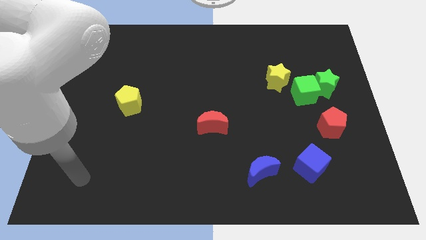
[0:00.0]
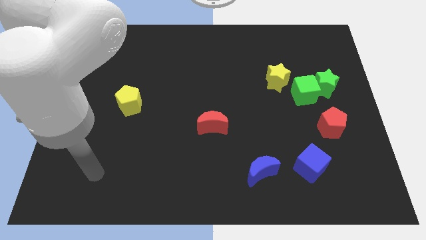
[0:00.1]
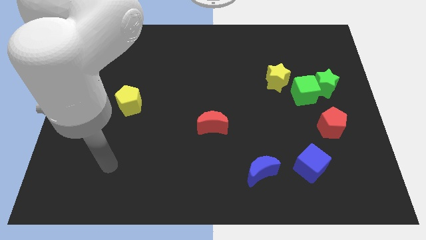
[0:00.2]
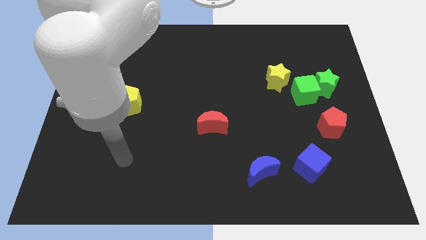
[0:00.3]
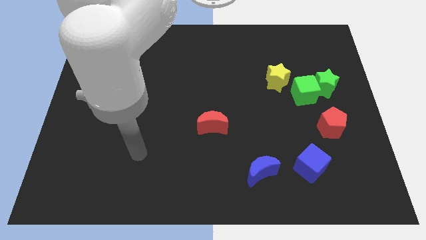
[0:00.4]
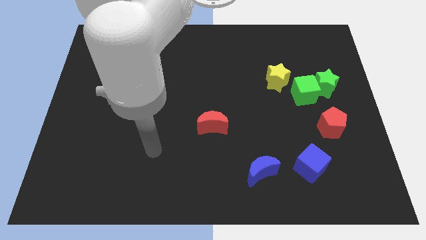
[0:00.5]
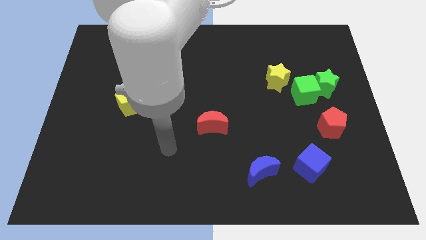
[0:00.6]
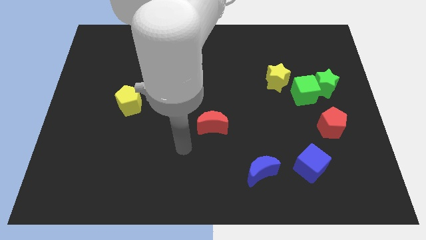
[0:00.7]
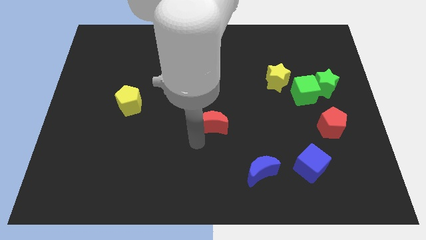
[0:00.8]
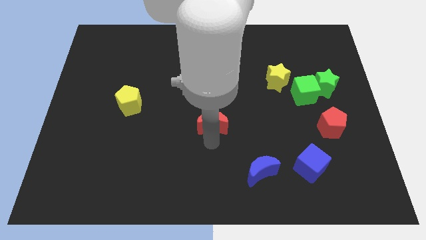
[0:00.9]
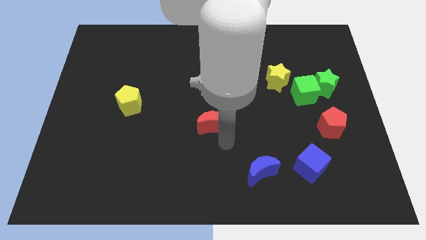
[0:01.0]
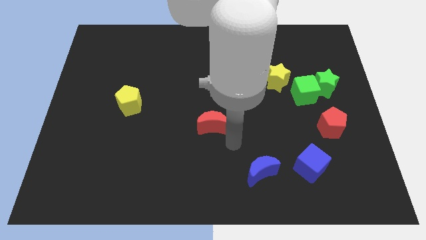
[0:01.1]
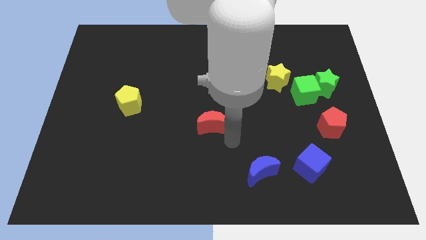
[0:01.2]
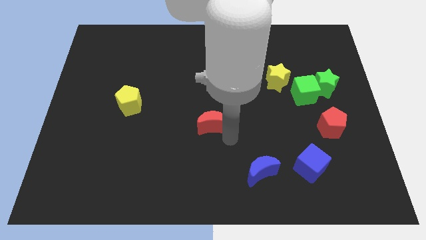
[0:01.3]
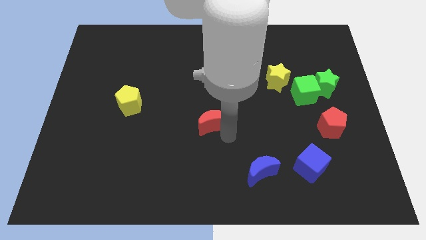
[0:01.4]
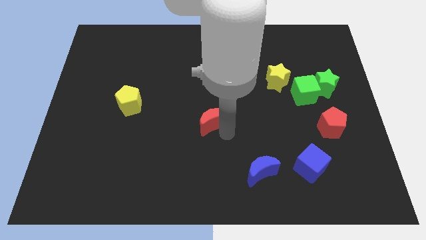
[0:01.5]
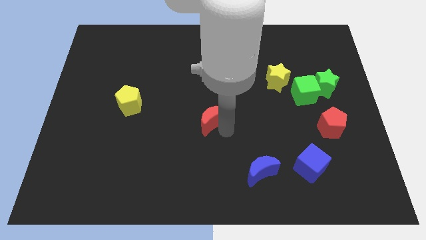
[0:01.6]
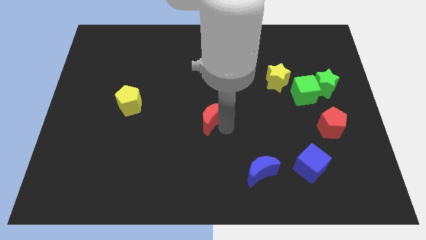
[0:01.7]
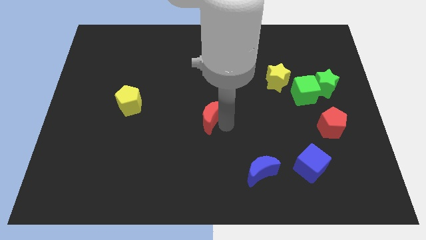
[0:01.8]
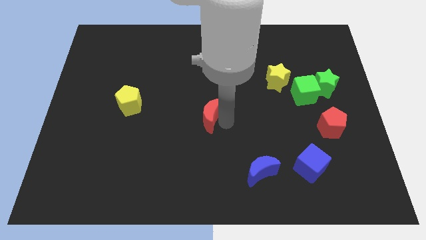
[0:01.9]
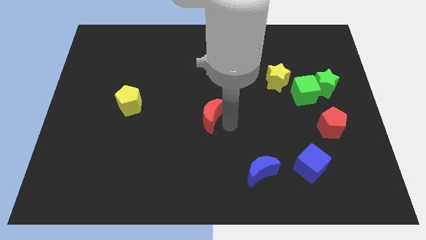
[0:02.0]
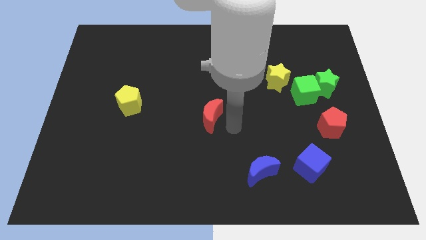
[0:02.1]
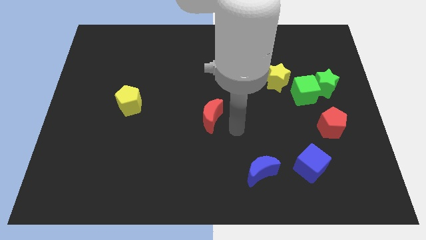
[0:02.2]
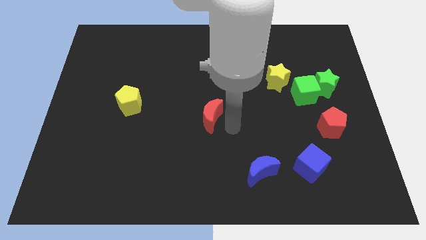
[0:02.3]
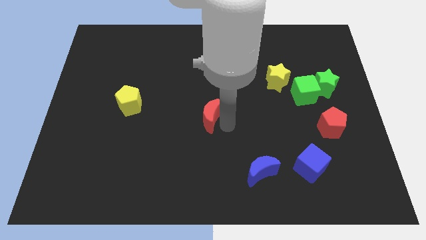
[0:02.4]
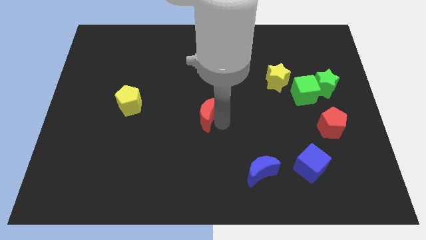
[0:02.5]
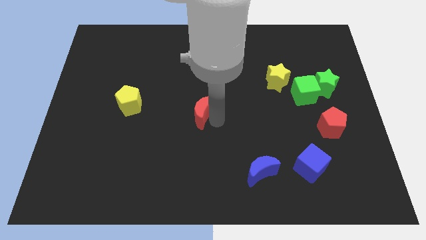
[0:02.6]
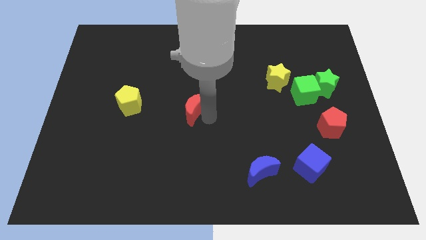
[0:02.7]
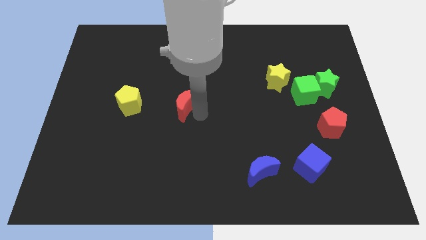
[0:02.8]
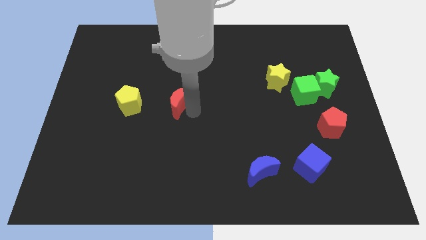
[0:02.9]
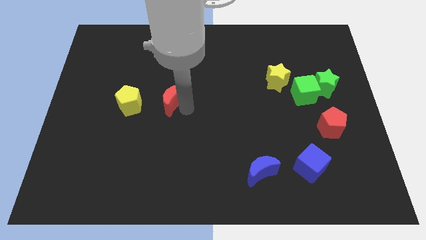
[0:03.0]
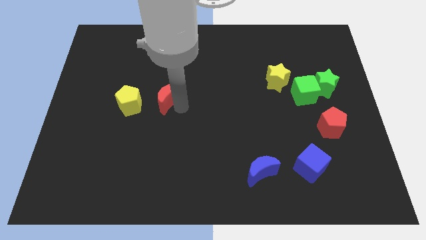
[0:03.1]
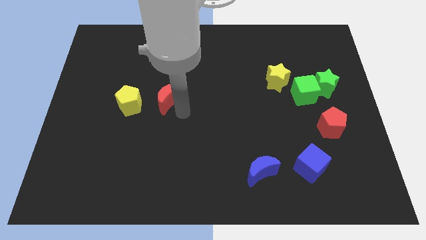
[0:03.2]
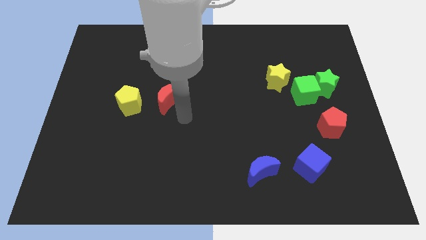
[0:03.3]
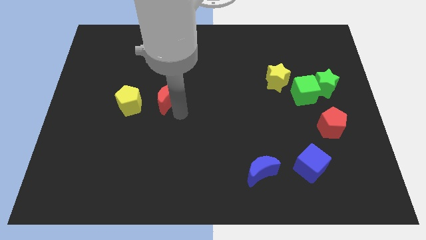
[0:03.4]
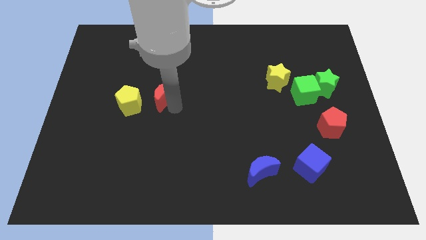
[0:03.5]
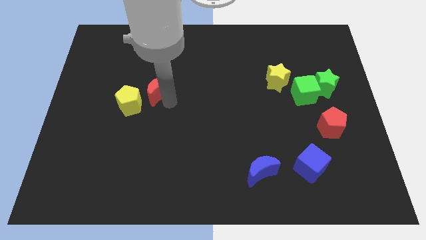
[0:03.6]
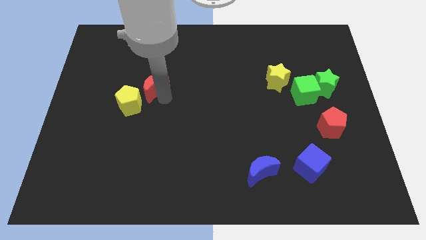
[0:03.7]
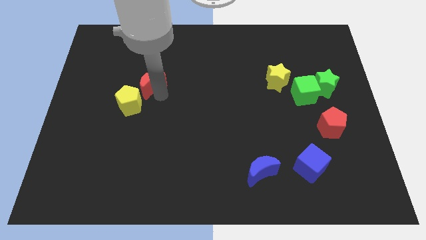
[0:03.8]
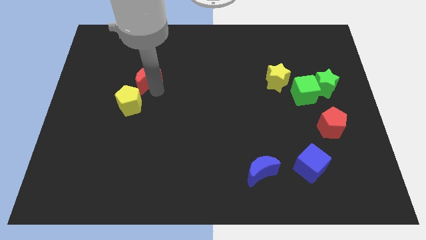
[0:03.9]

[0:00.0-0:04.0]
slide the red moon upwards and then to the left

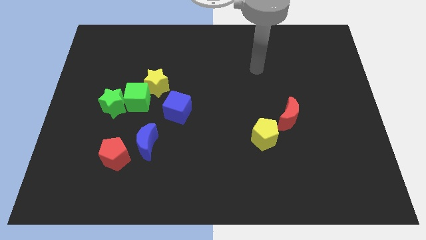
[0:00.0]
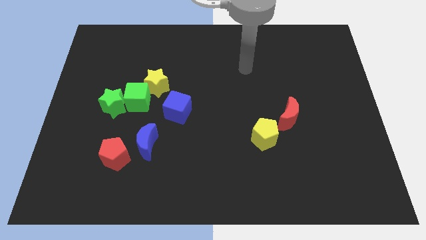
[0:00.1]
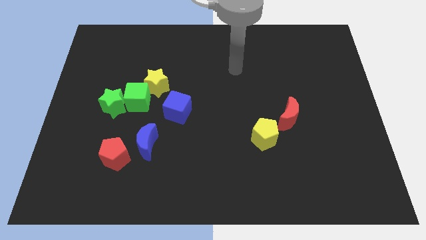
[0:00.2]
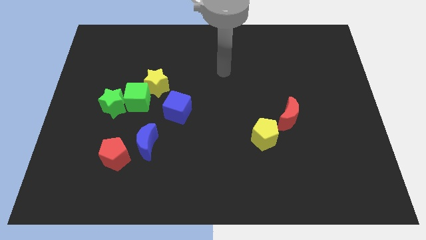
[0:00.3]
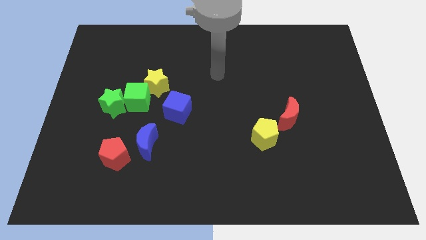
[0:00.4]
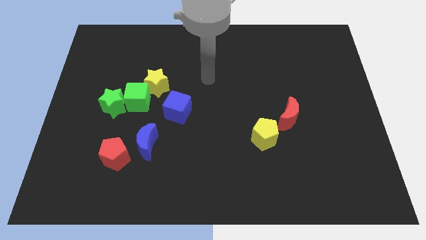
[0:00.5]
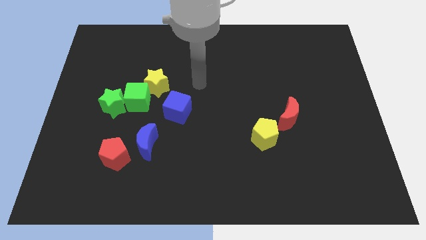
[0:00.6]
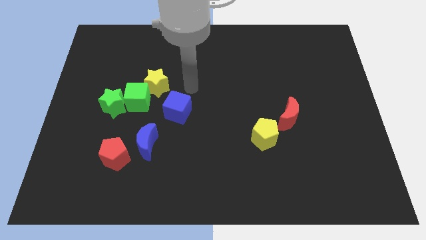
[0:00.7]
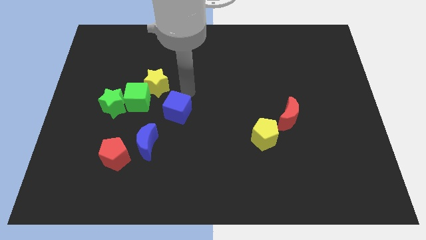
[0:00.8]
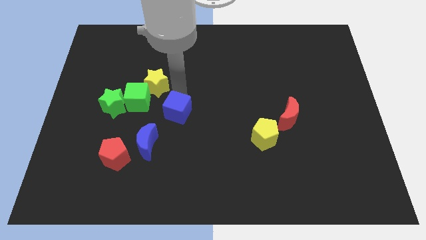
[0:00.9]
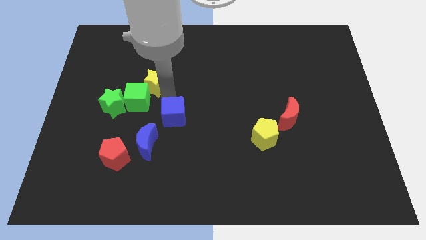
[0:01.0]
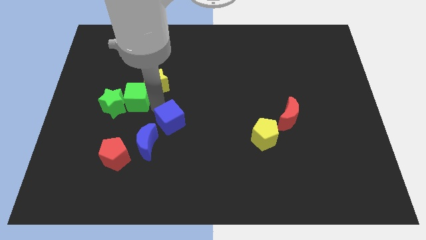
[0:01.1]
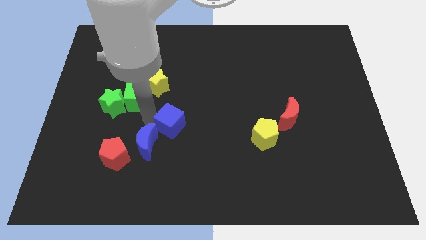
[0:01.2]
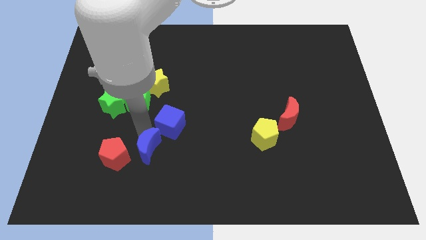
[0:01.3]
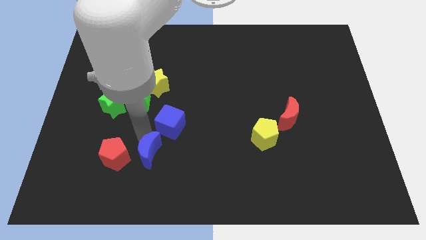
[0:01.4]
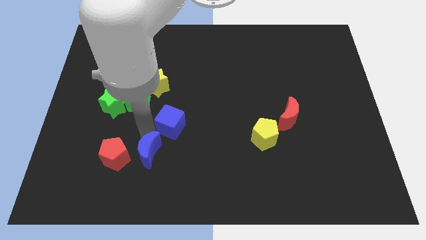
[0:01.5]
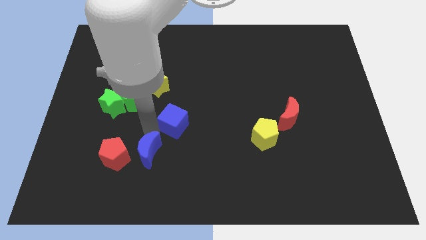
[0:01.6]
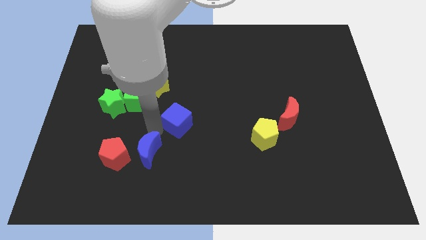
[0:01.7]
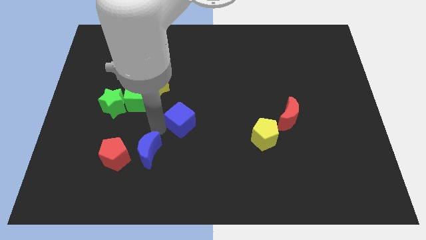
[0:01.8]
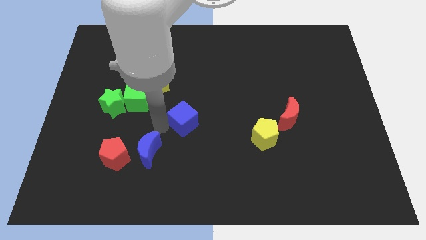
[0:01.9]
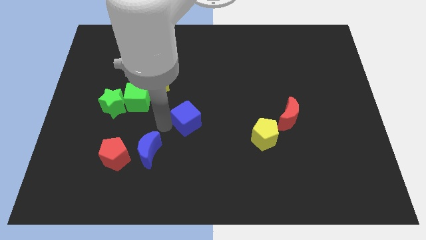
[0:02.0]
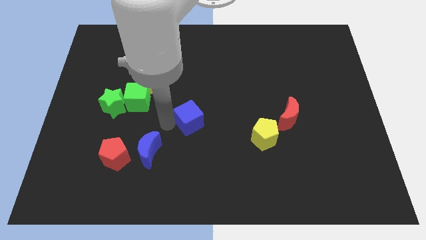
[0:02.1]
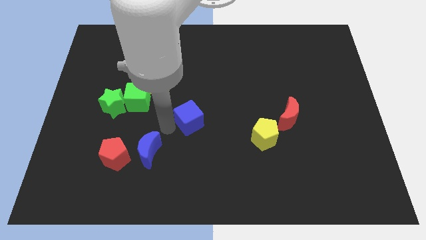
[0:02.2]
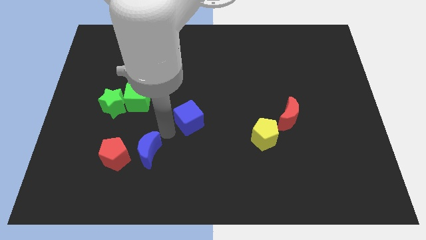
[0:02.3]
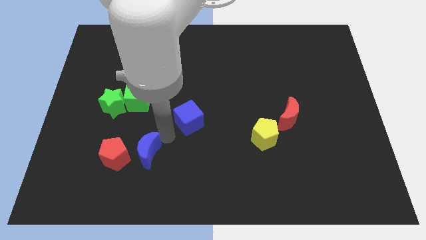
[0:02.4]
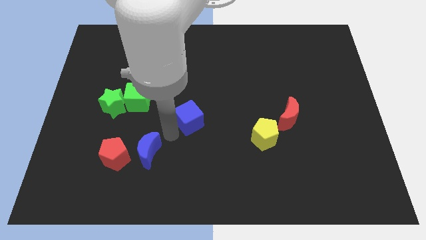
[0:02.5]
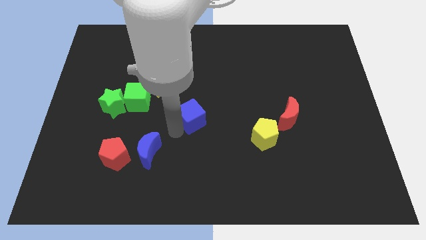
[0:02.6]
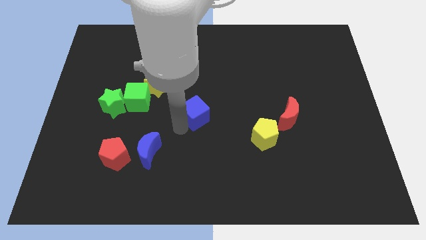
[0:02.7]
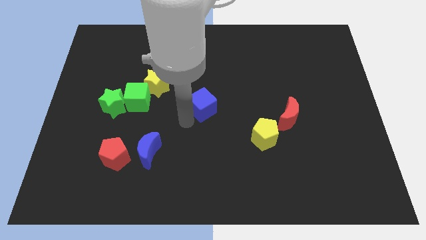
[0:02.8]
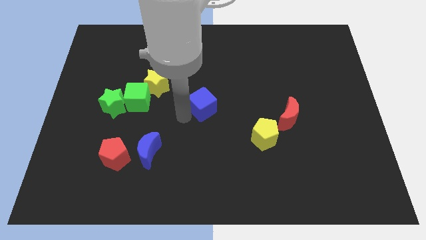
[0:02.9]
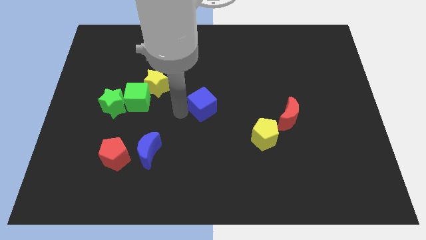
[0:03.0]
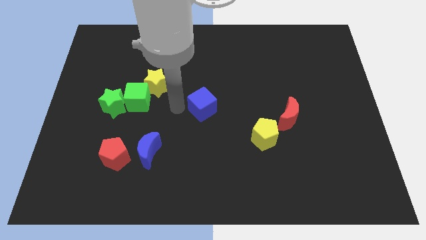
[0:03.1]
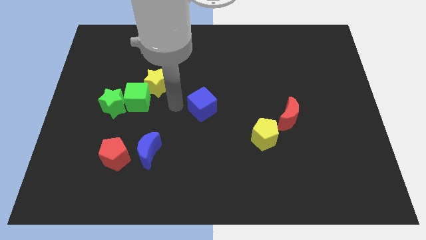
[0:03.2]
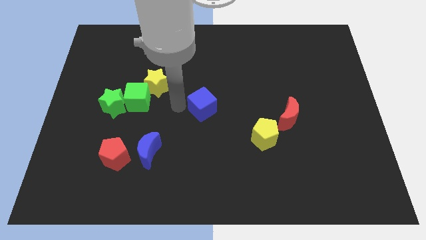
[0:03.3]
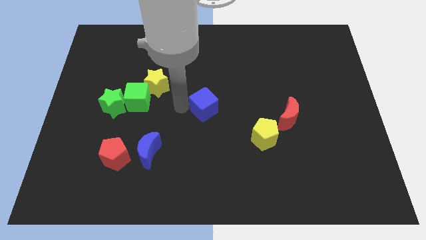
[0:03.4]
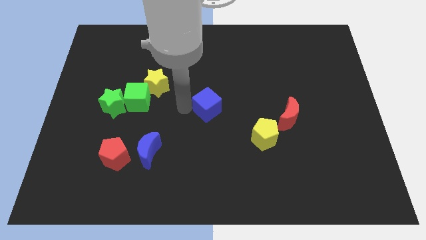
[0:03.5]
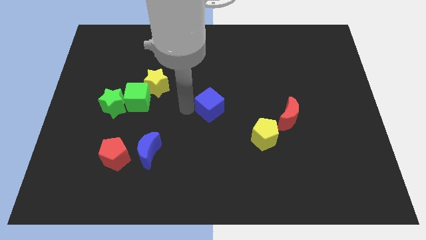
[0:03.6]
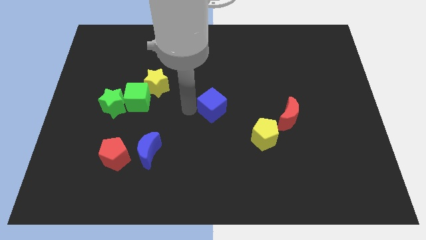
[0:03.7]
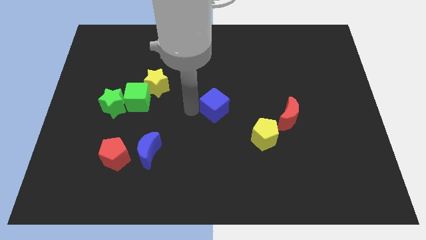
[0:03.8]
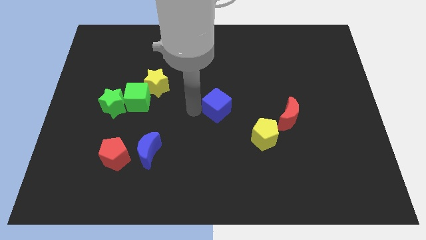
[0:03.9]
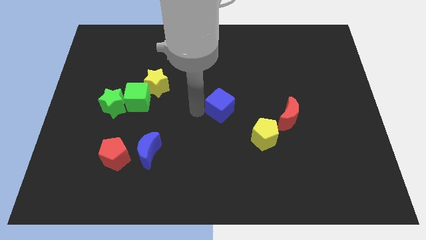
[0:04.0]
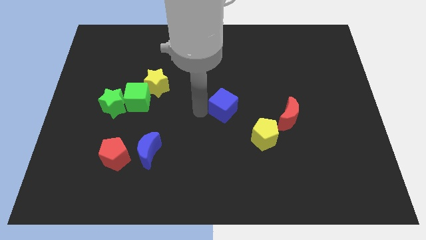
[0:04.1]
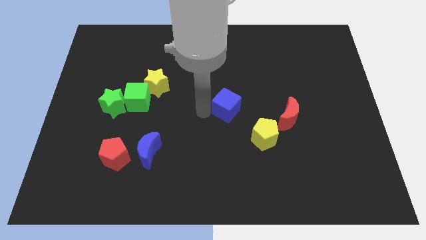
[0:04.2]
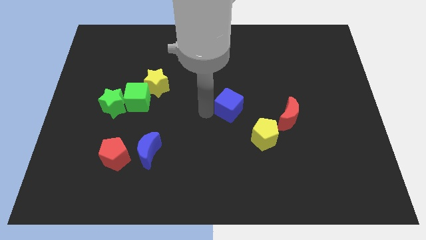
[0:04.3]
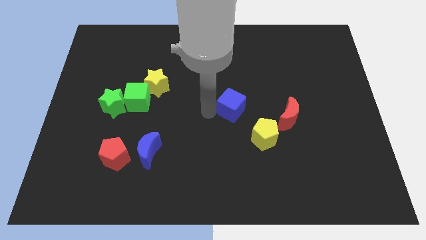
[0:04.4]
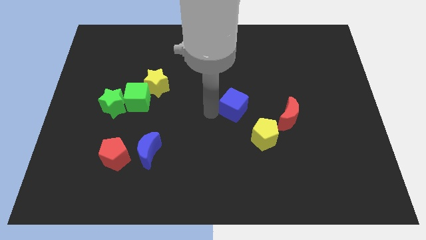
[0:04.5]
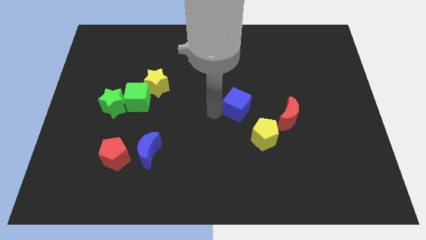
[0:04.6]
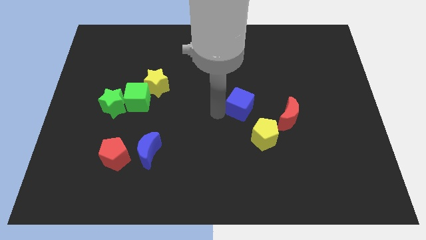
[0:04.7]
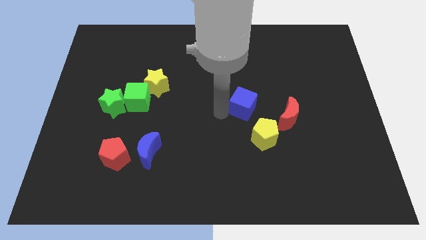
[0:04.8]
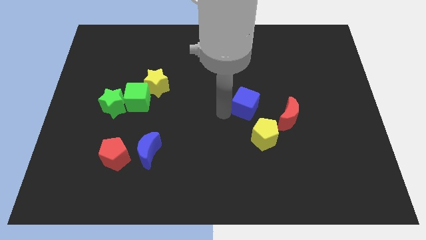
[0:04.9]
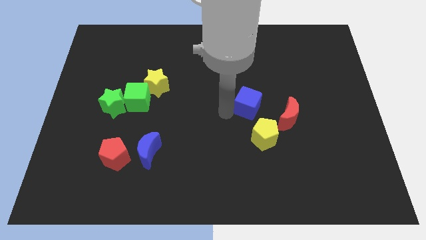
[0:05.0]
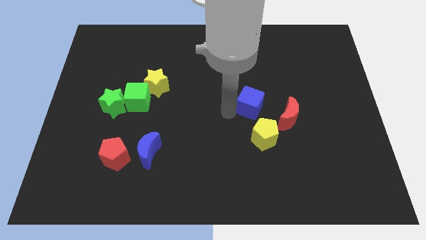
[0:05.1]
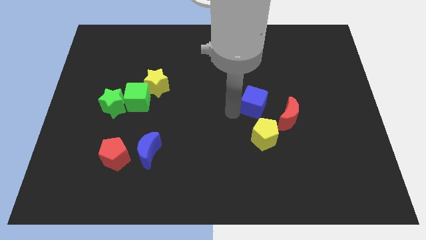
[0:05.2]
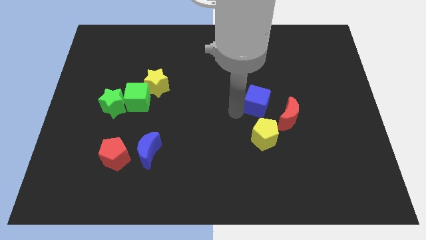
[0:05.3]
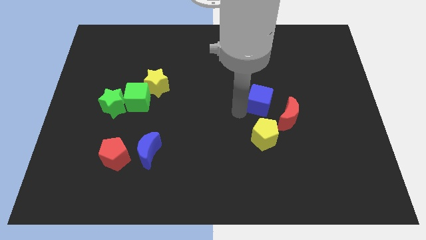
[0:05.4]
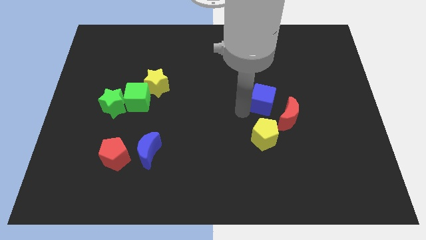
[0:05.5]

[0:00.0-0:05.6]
move the blue cube right
